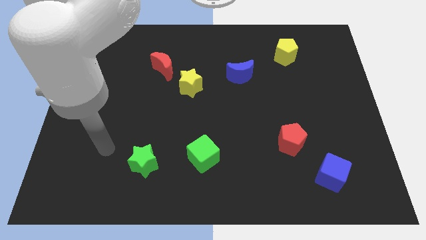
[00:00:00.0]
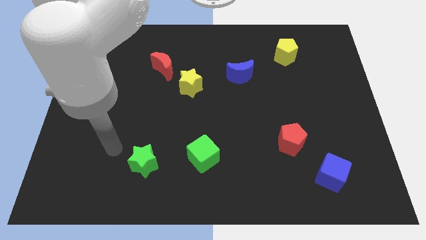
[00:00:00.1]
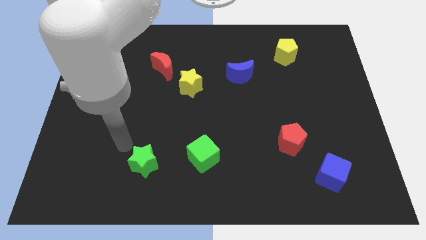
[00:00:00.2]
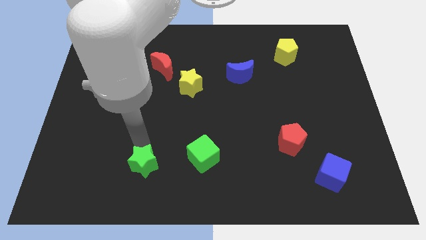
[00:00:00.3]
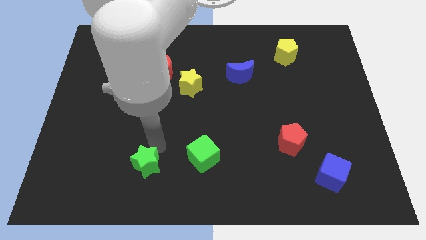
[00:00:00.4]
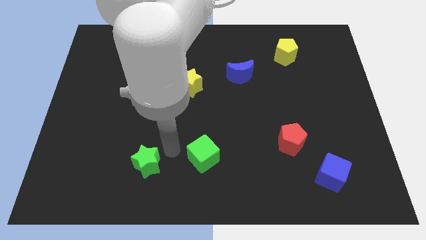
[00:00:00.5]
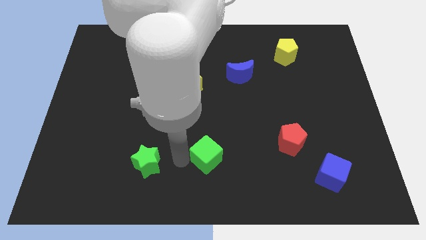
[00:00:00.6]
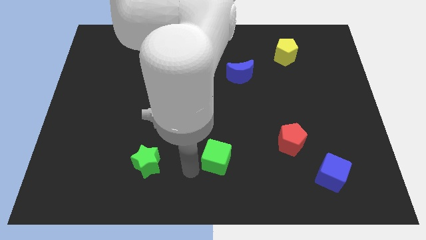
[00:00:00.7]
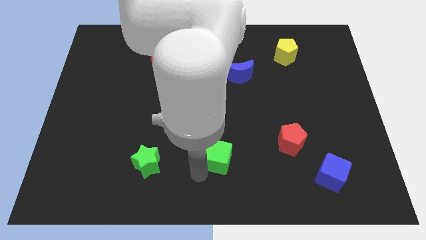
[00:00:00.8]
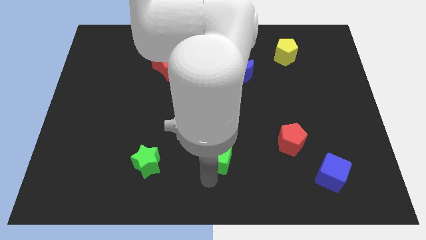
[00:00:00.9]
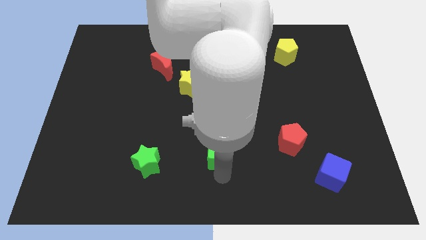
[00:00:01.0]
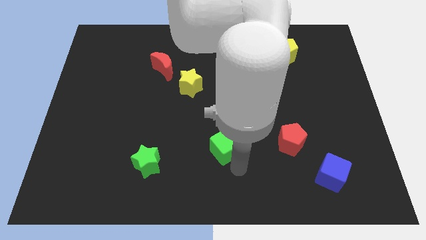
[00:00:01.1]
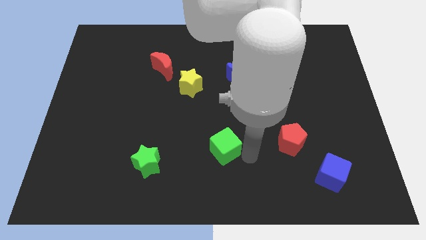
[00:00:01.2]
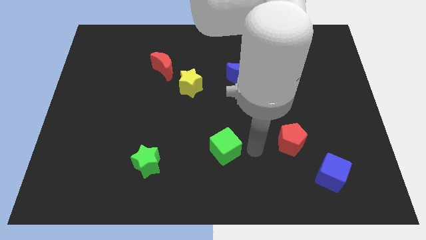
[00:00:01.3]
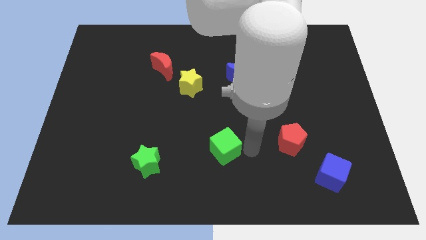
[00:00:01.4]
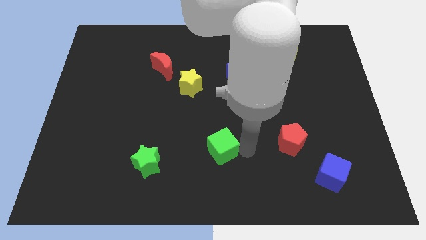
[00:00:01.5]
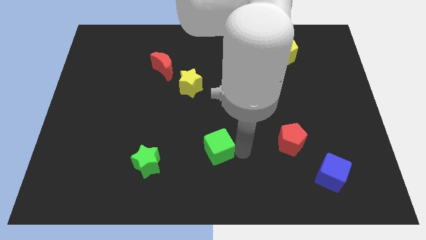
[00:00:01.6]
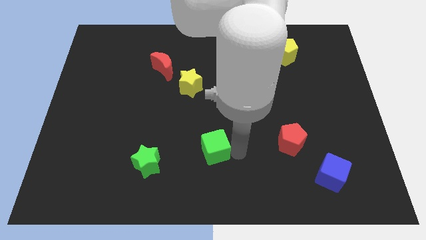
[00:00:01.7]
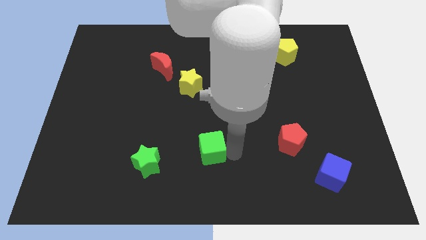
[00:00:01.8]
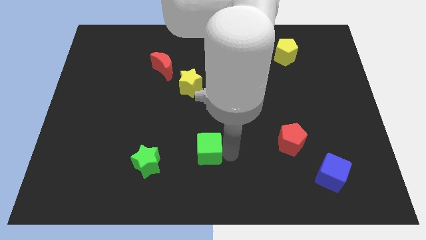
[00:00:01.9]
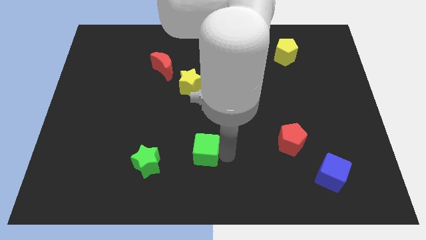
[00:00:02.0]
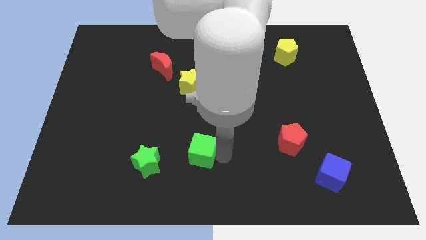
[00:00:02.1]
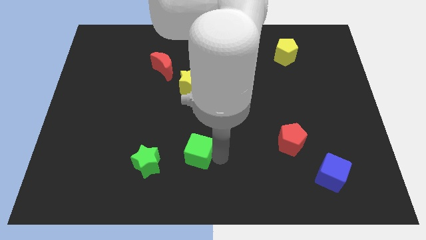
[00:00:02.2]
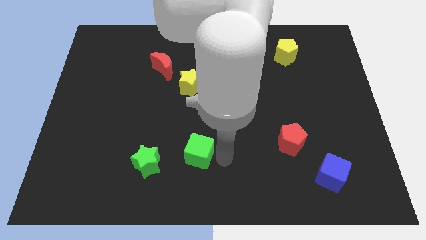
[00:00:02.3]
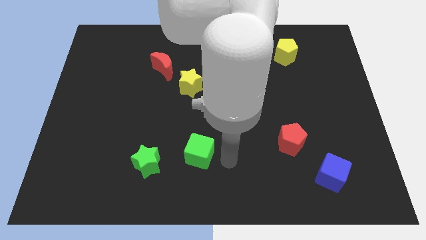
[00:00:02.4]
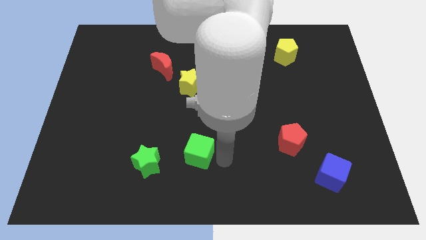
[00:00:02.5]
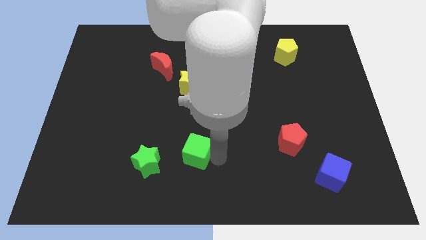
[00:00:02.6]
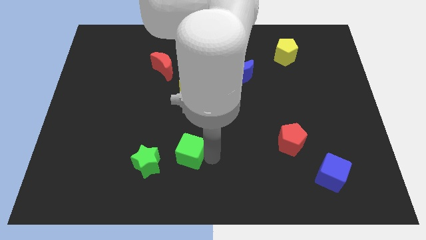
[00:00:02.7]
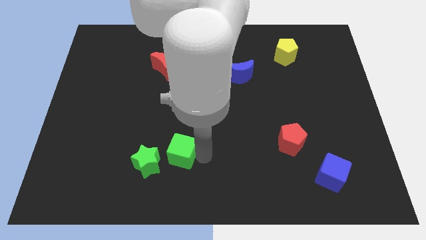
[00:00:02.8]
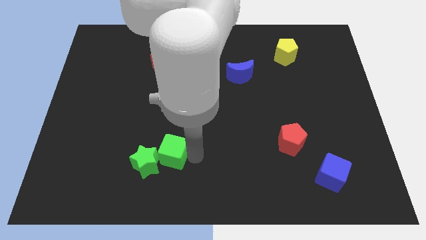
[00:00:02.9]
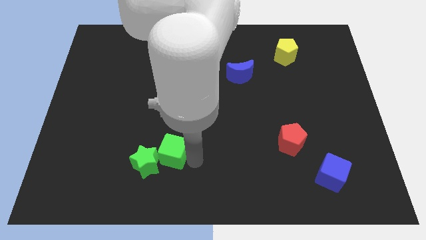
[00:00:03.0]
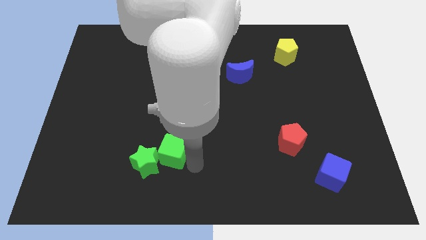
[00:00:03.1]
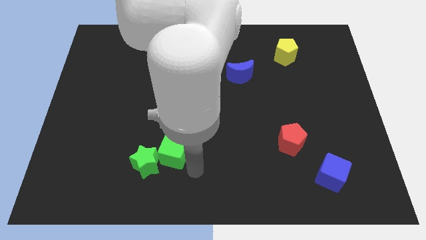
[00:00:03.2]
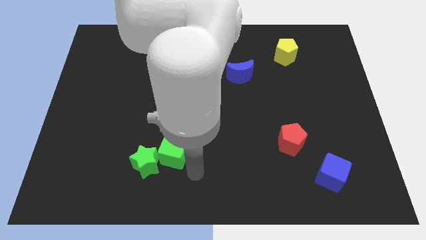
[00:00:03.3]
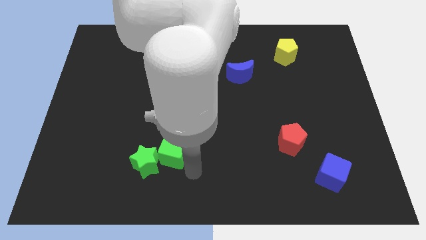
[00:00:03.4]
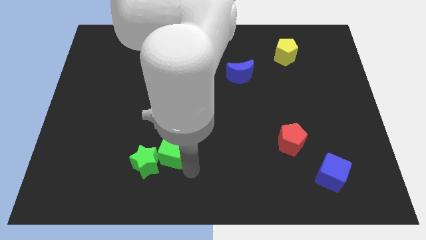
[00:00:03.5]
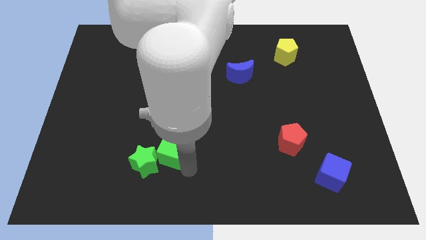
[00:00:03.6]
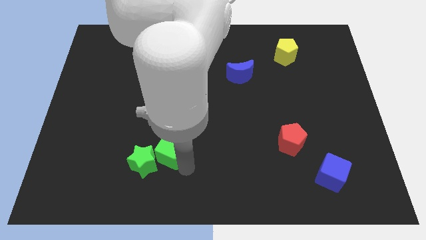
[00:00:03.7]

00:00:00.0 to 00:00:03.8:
slightly slide the green cube left

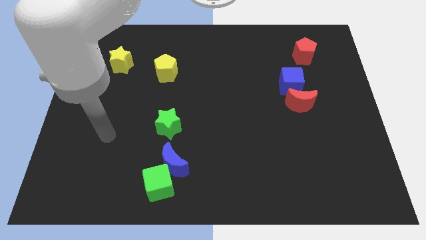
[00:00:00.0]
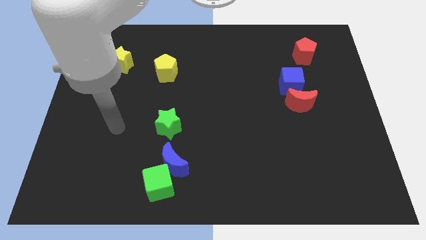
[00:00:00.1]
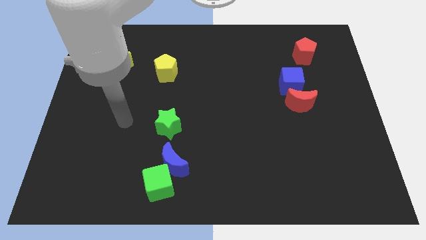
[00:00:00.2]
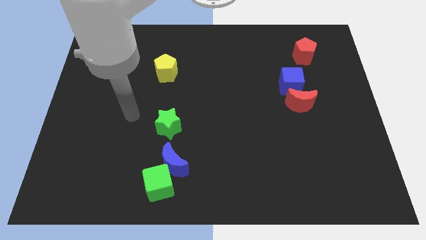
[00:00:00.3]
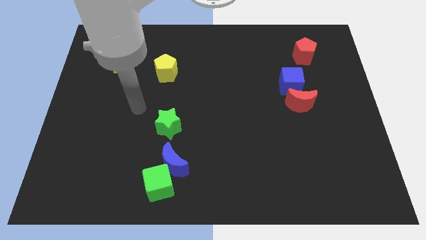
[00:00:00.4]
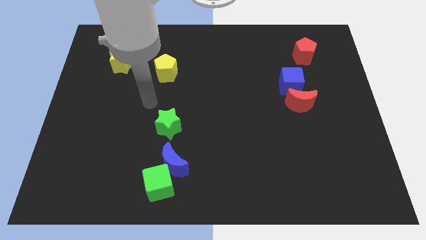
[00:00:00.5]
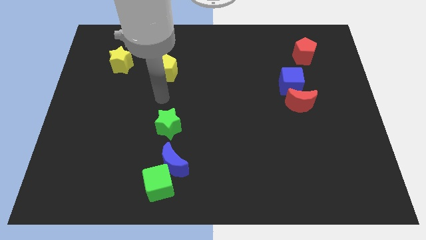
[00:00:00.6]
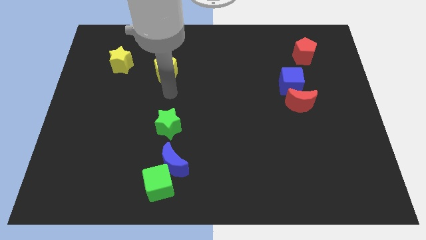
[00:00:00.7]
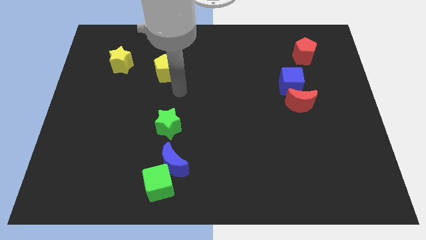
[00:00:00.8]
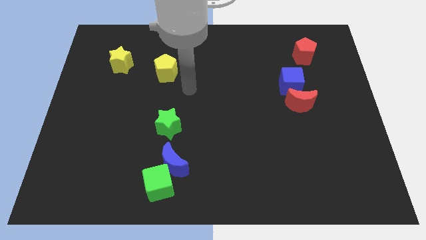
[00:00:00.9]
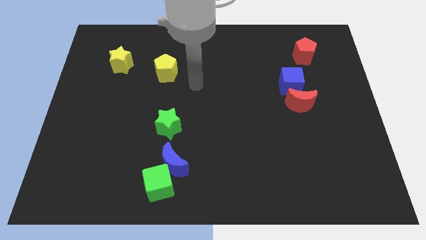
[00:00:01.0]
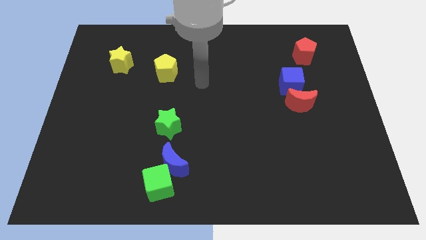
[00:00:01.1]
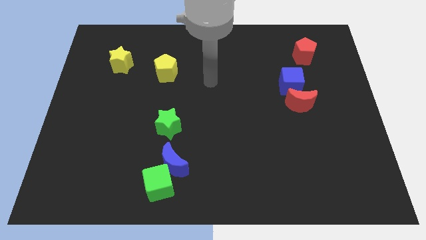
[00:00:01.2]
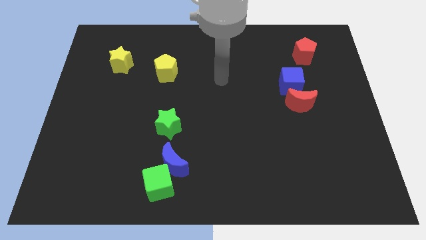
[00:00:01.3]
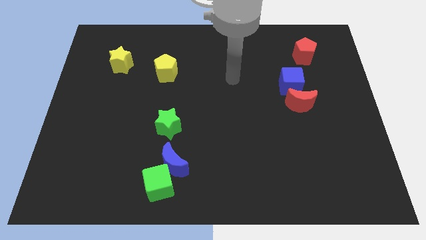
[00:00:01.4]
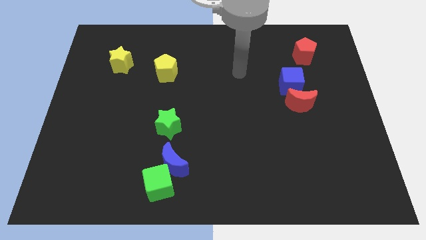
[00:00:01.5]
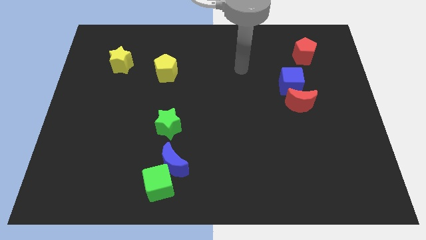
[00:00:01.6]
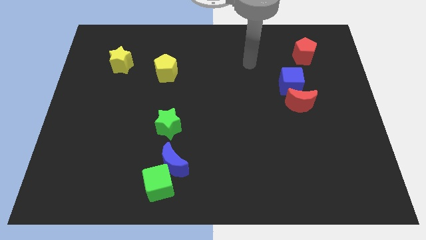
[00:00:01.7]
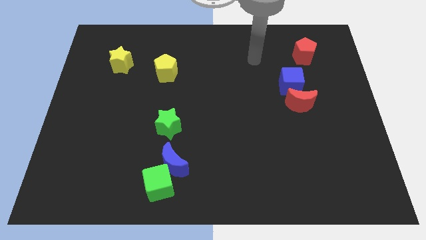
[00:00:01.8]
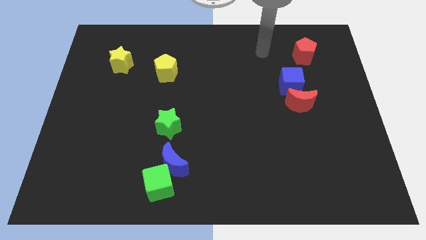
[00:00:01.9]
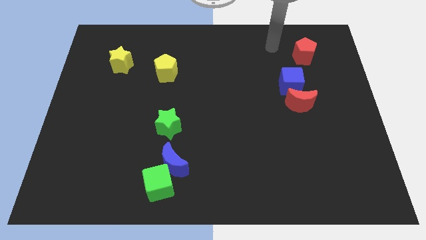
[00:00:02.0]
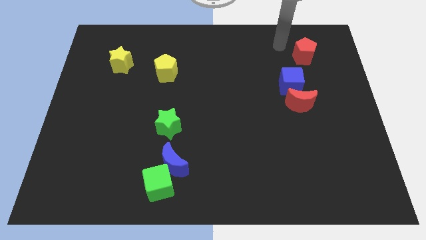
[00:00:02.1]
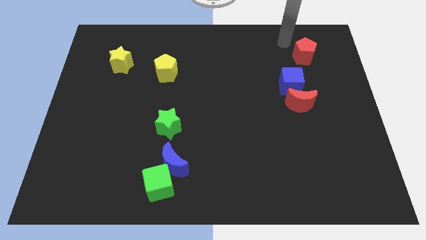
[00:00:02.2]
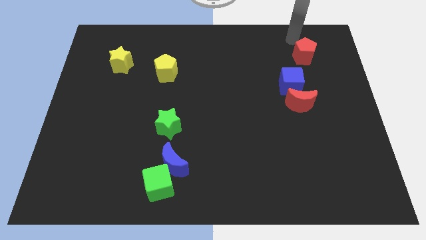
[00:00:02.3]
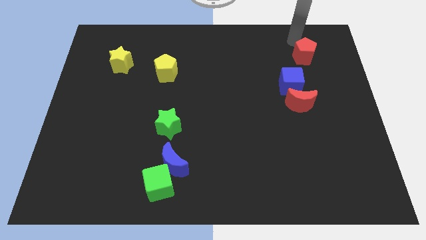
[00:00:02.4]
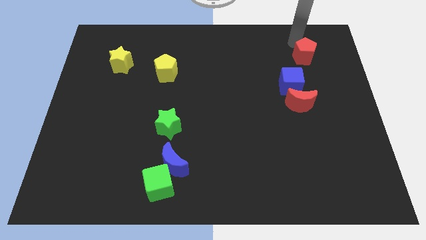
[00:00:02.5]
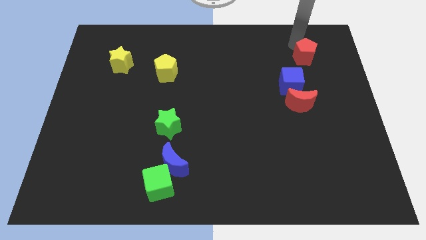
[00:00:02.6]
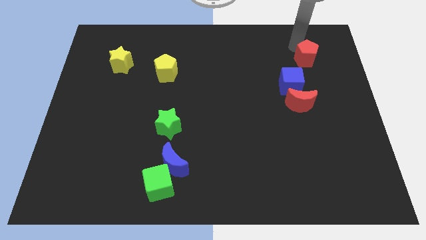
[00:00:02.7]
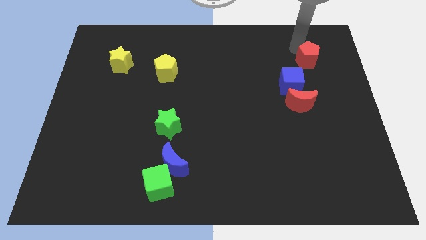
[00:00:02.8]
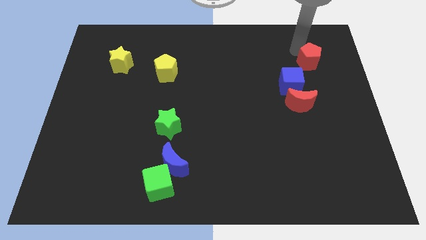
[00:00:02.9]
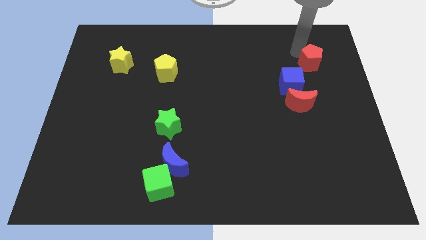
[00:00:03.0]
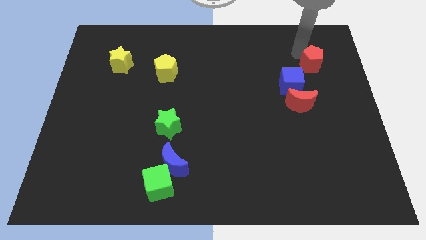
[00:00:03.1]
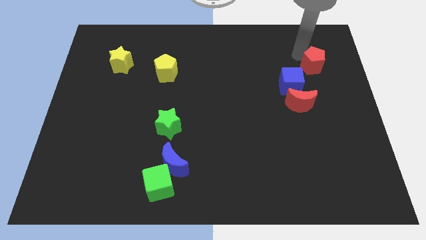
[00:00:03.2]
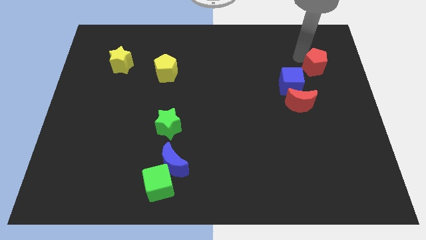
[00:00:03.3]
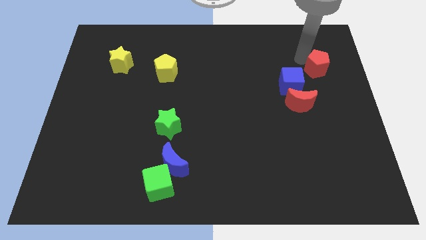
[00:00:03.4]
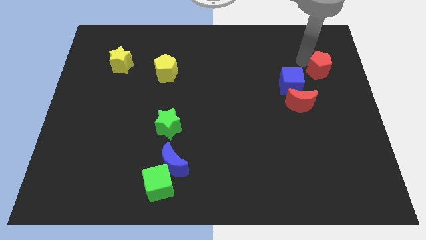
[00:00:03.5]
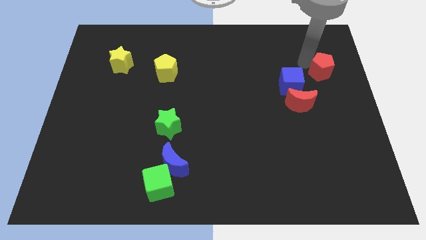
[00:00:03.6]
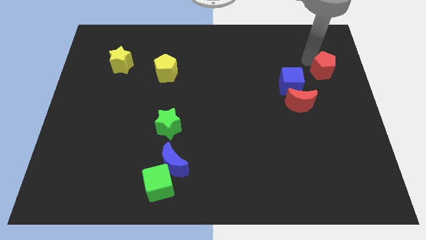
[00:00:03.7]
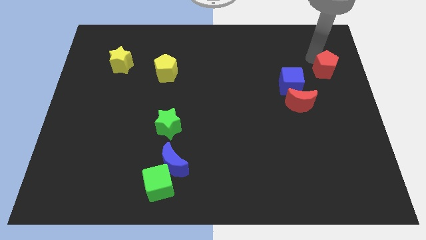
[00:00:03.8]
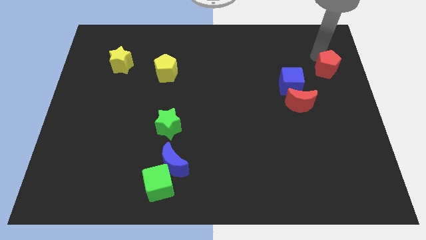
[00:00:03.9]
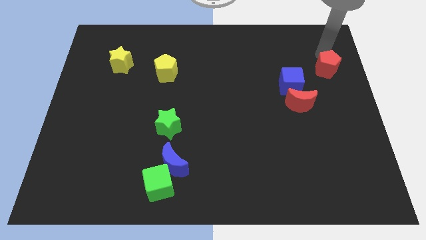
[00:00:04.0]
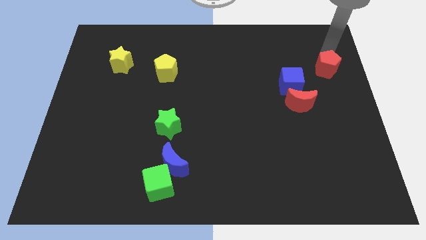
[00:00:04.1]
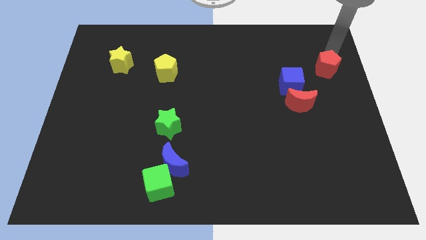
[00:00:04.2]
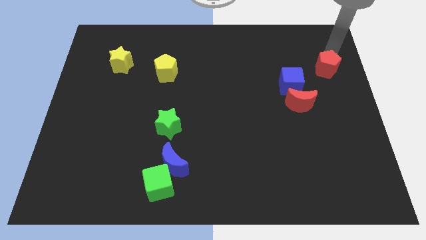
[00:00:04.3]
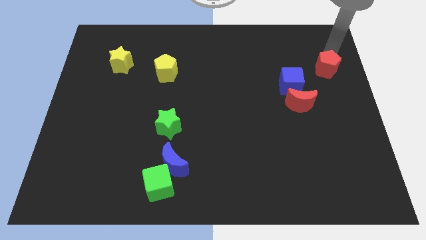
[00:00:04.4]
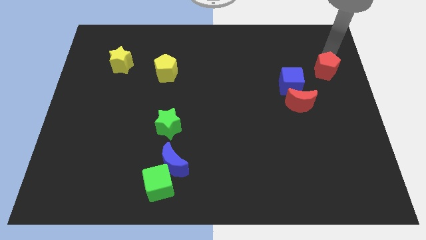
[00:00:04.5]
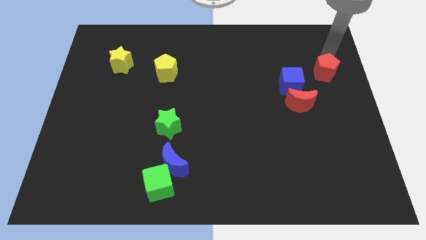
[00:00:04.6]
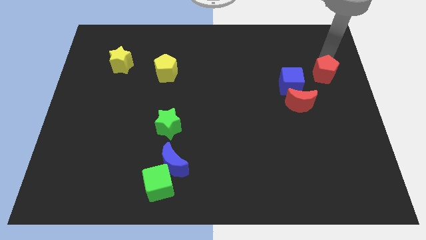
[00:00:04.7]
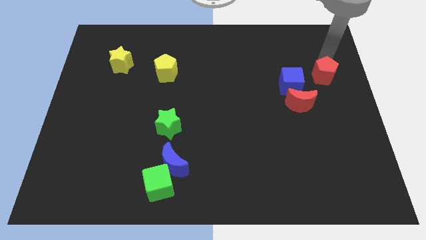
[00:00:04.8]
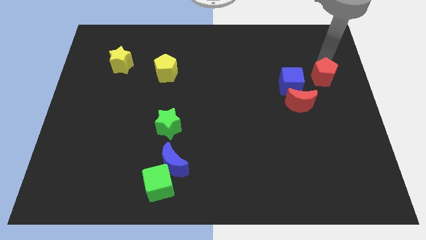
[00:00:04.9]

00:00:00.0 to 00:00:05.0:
push the red pentagon a bit downwards
